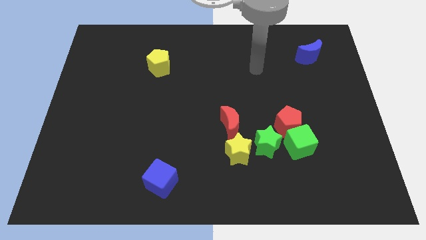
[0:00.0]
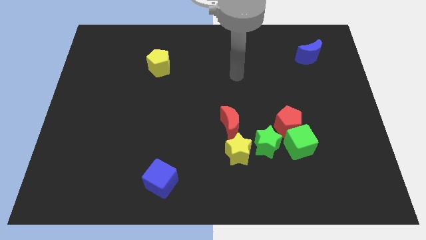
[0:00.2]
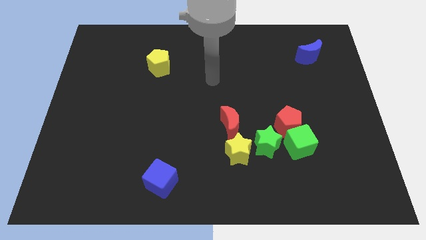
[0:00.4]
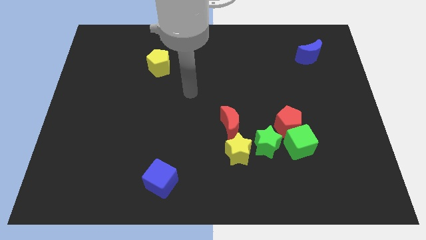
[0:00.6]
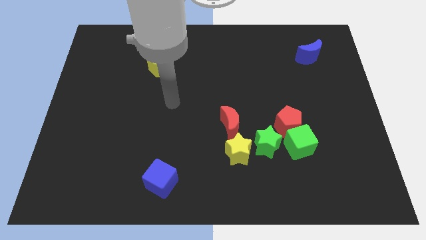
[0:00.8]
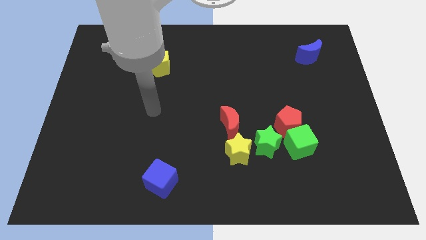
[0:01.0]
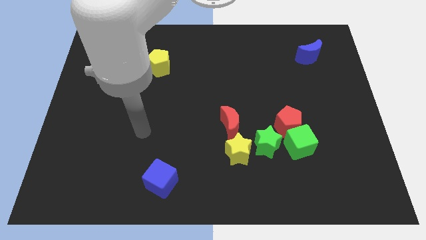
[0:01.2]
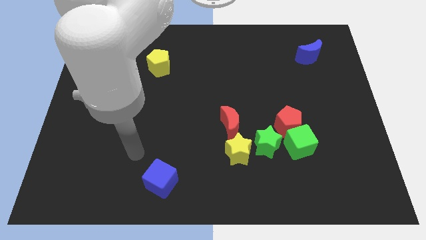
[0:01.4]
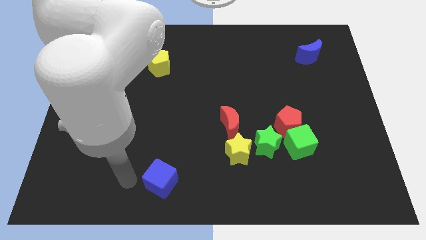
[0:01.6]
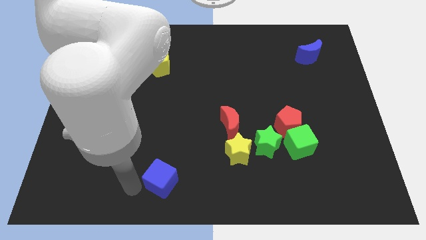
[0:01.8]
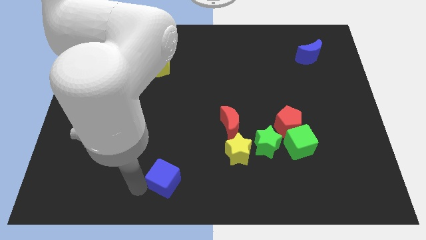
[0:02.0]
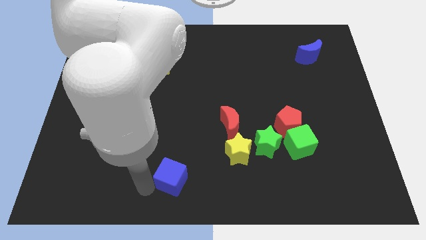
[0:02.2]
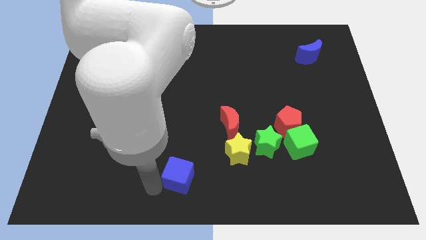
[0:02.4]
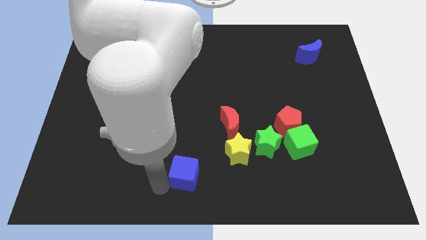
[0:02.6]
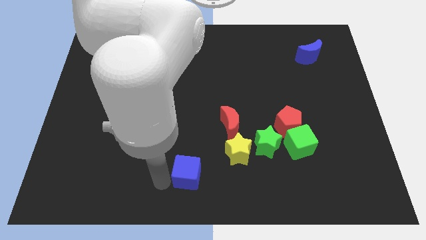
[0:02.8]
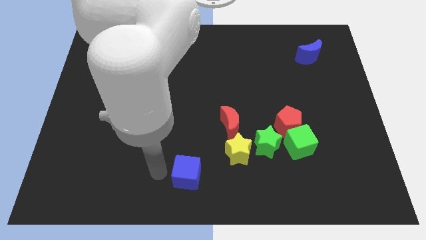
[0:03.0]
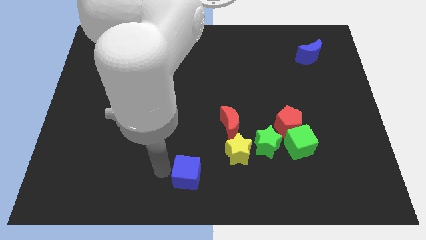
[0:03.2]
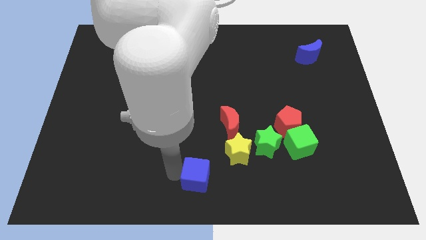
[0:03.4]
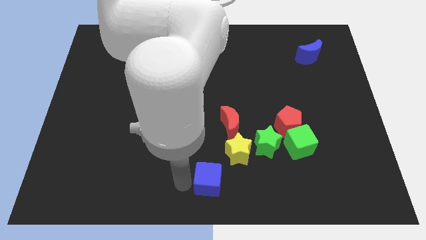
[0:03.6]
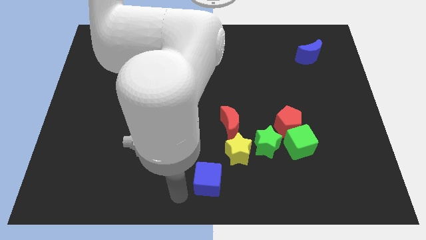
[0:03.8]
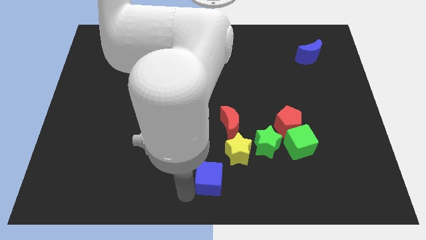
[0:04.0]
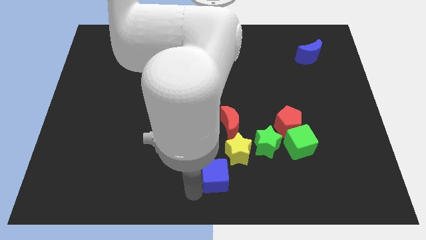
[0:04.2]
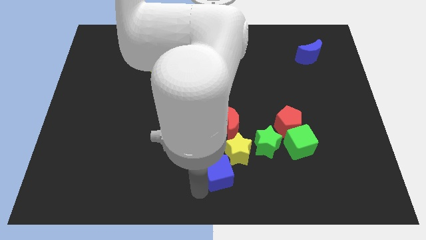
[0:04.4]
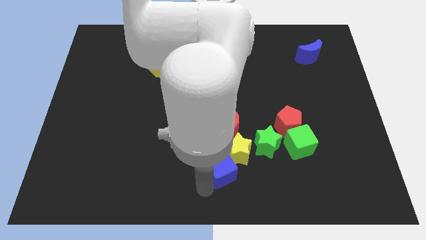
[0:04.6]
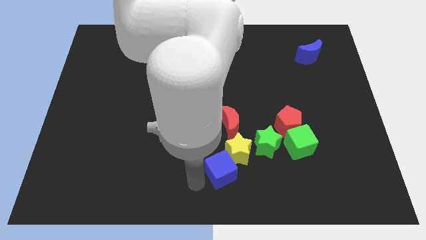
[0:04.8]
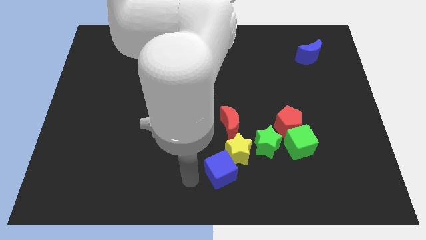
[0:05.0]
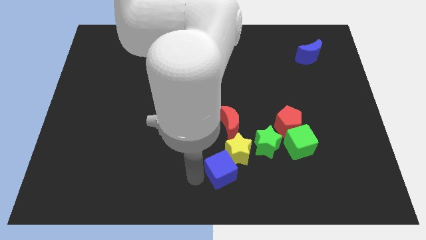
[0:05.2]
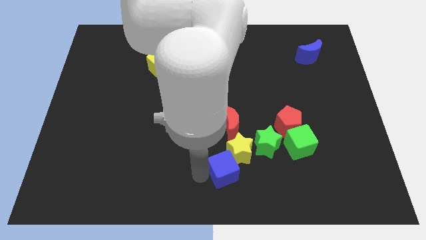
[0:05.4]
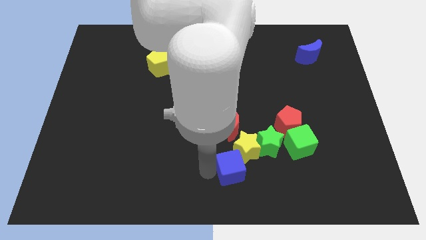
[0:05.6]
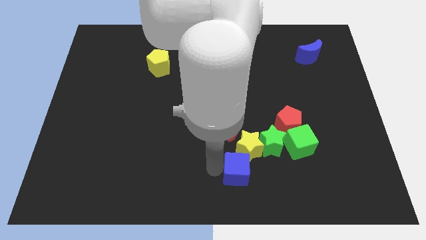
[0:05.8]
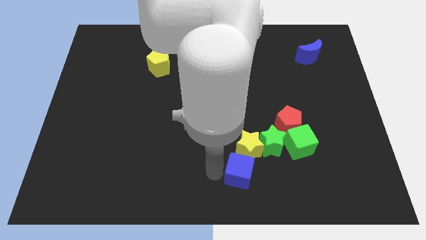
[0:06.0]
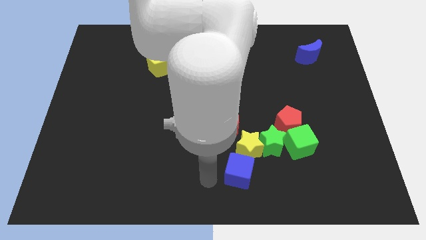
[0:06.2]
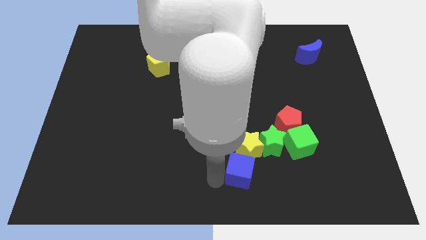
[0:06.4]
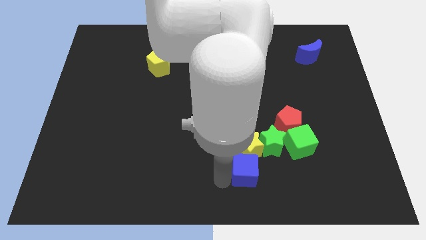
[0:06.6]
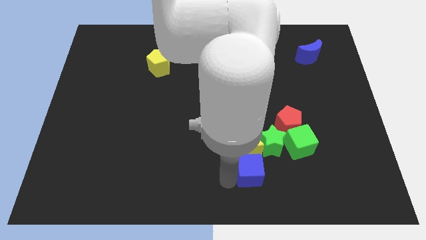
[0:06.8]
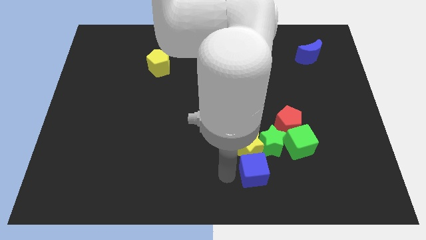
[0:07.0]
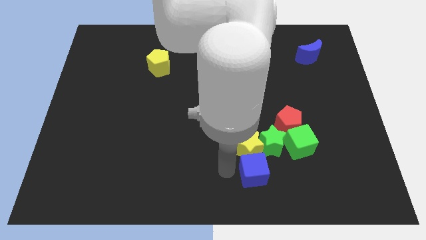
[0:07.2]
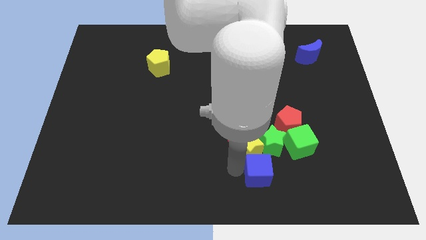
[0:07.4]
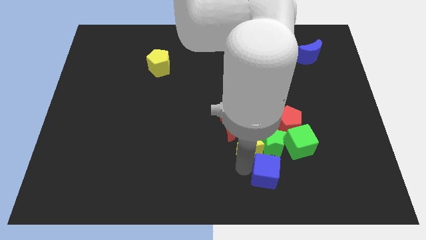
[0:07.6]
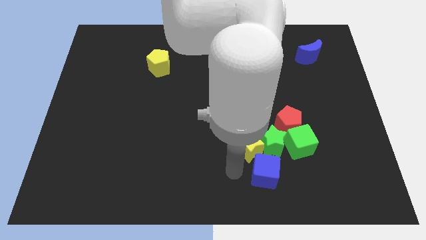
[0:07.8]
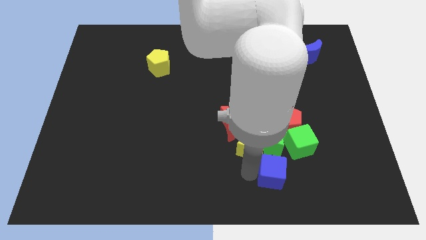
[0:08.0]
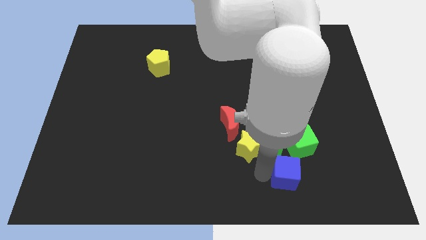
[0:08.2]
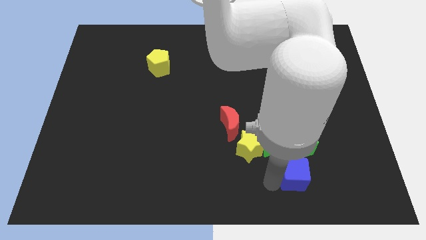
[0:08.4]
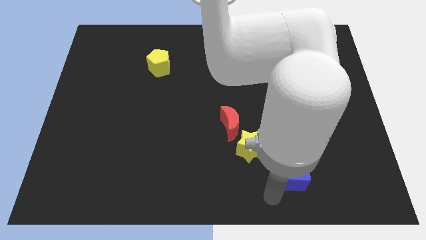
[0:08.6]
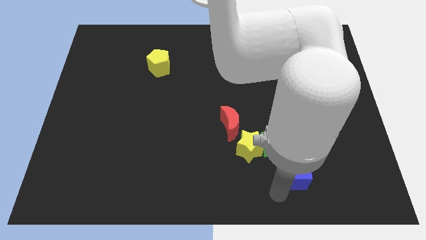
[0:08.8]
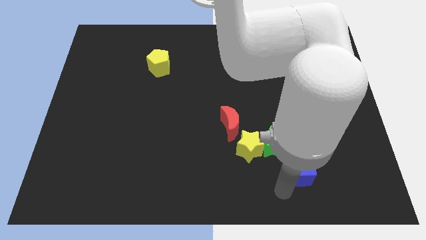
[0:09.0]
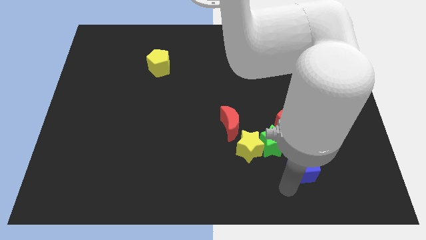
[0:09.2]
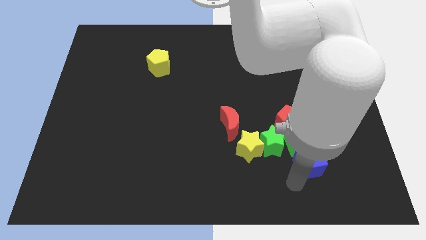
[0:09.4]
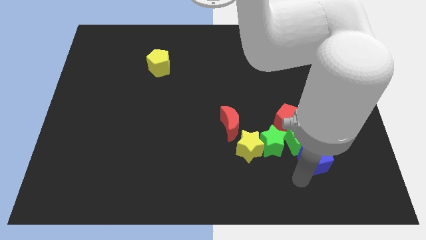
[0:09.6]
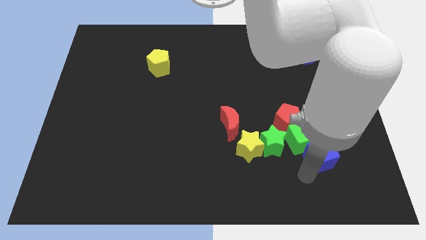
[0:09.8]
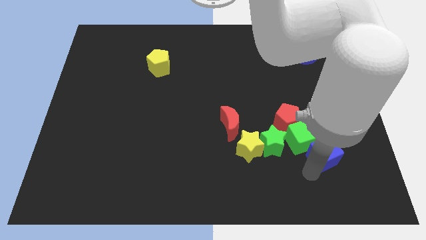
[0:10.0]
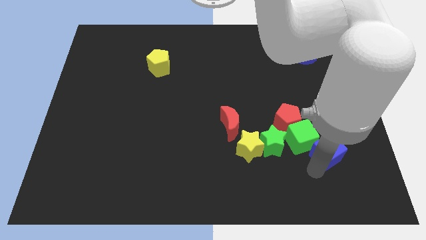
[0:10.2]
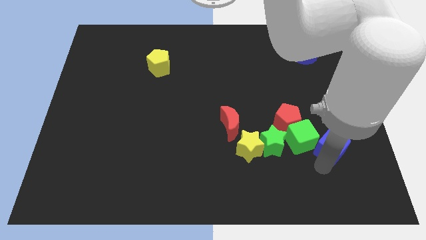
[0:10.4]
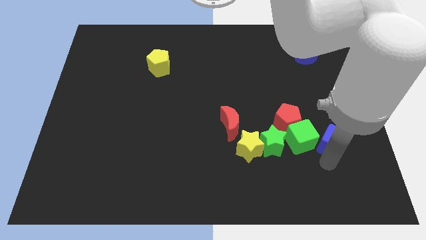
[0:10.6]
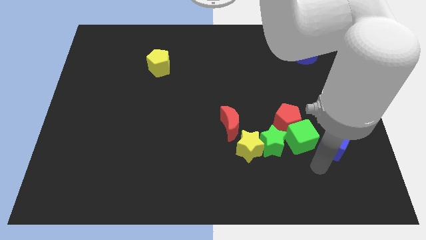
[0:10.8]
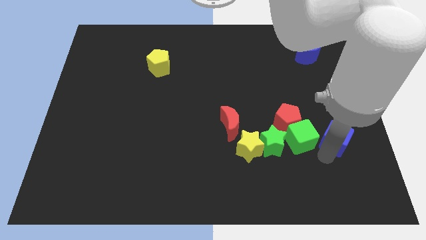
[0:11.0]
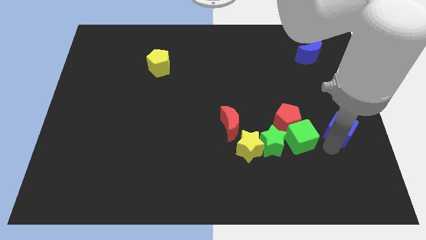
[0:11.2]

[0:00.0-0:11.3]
put the blue cube to the right side
